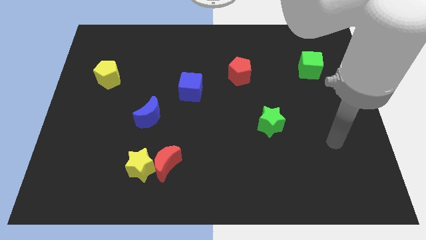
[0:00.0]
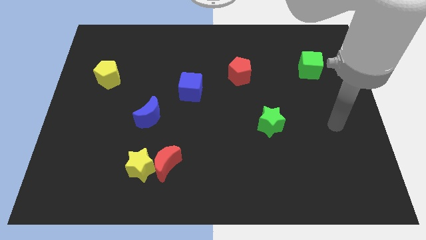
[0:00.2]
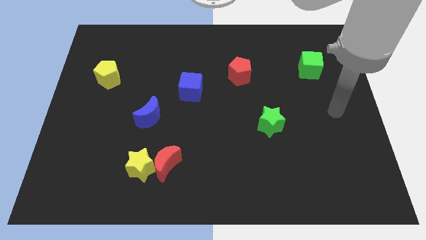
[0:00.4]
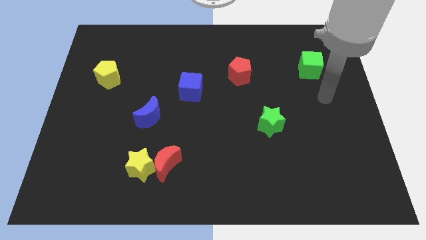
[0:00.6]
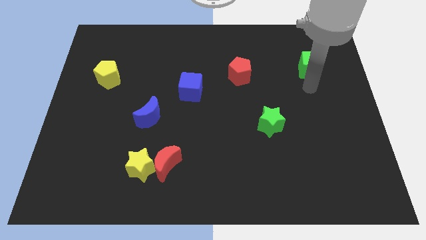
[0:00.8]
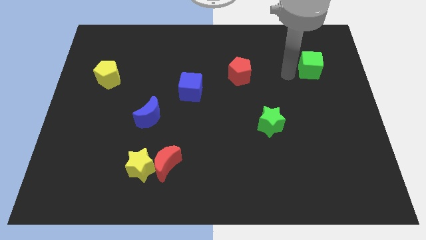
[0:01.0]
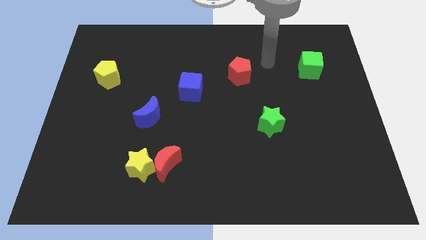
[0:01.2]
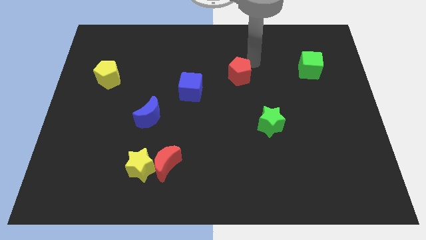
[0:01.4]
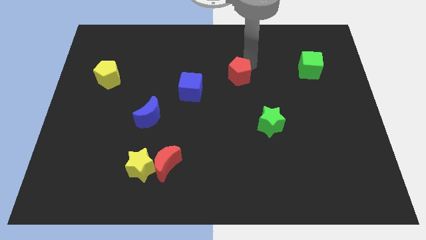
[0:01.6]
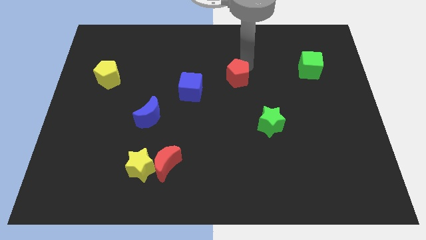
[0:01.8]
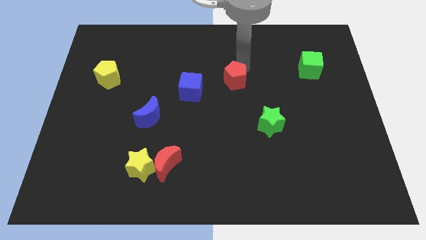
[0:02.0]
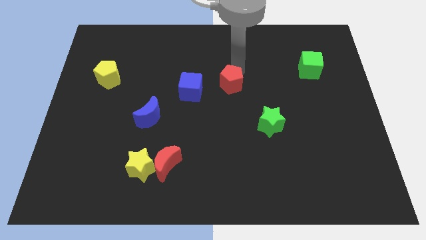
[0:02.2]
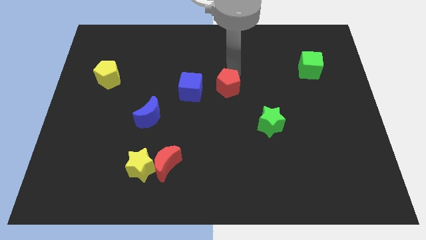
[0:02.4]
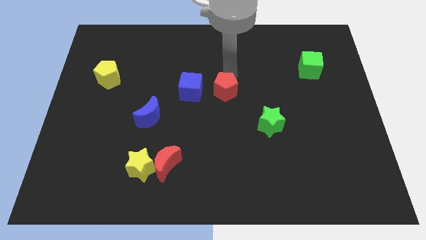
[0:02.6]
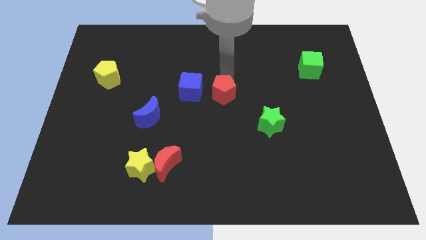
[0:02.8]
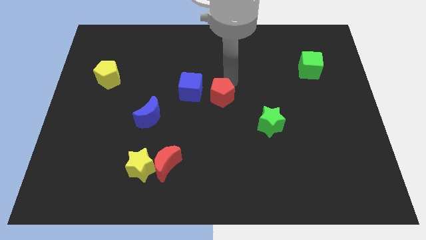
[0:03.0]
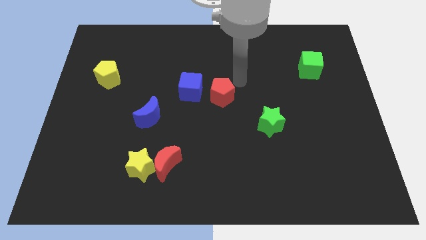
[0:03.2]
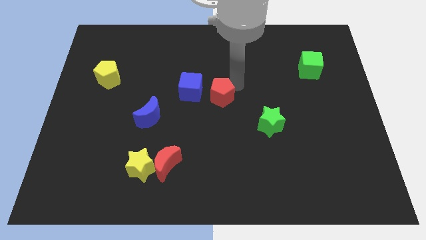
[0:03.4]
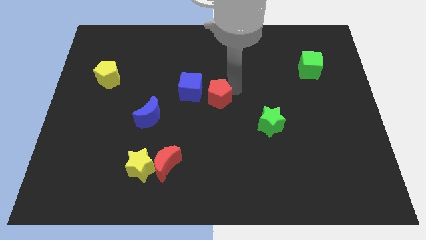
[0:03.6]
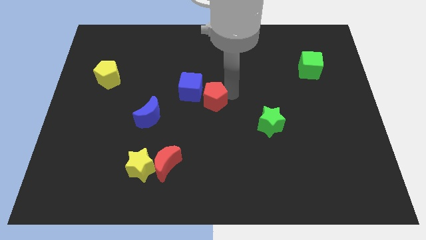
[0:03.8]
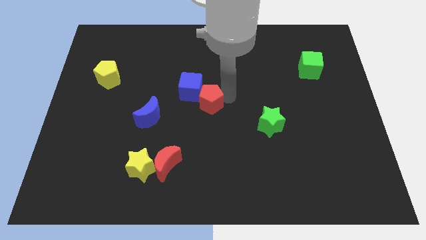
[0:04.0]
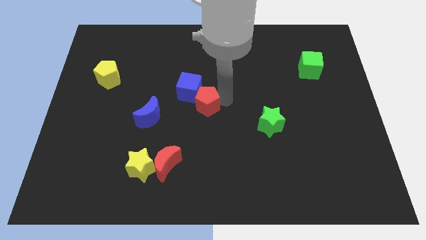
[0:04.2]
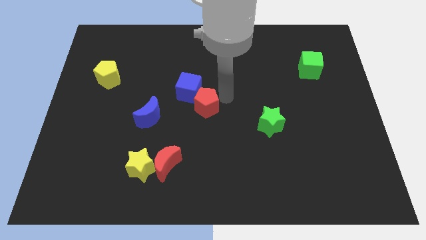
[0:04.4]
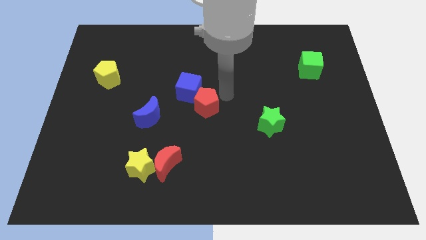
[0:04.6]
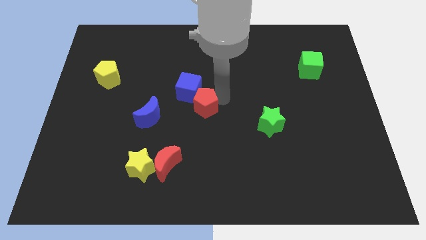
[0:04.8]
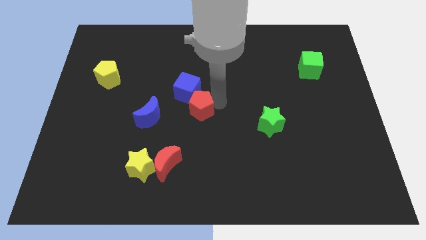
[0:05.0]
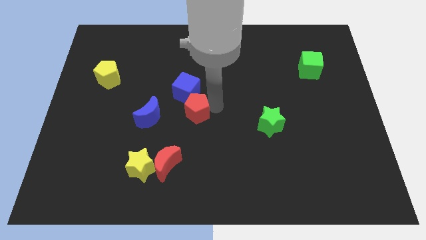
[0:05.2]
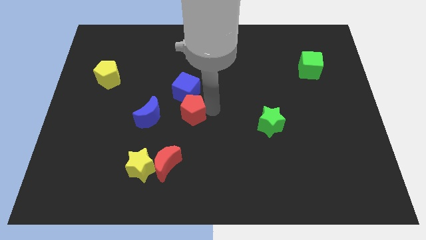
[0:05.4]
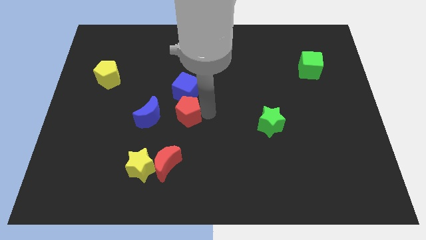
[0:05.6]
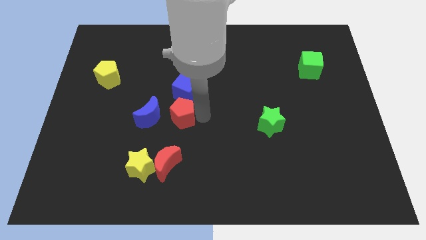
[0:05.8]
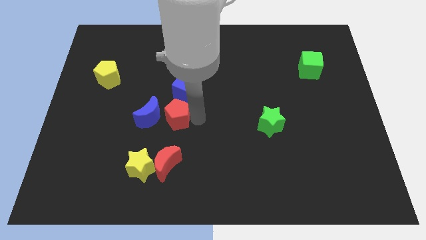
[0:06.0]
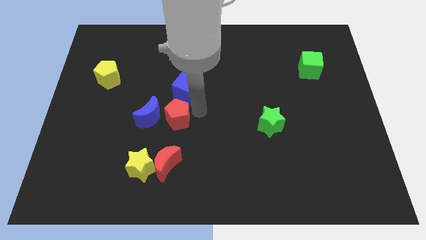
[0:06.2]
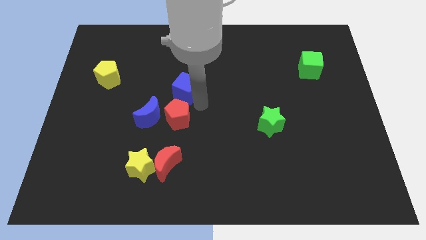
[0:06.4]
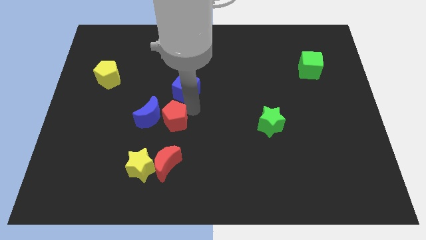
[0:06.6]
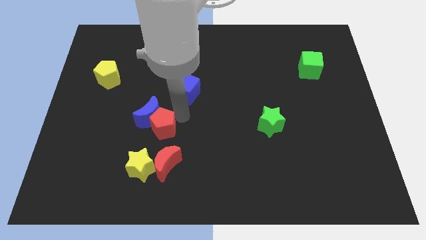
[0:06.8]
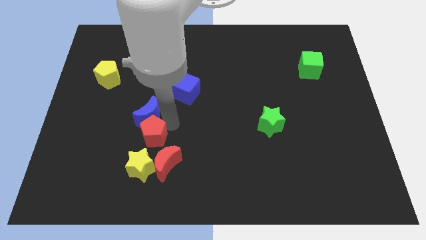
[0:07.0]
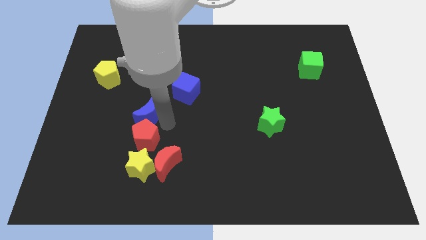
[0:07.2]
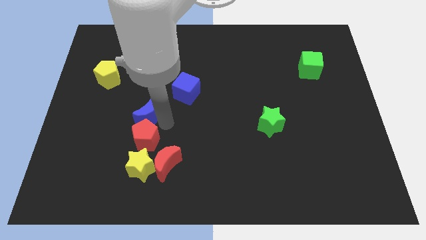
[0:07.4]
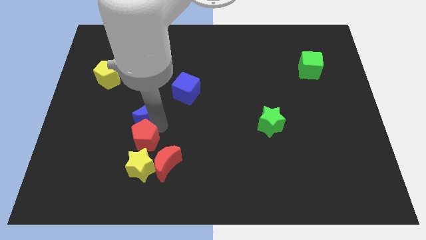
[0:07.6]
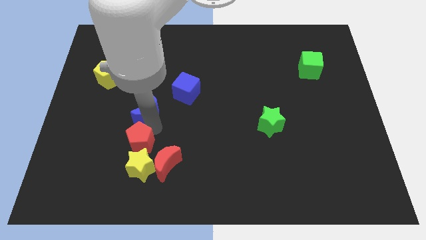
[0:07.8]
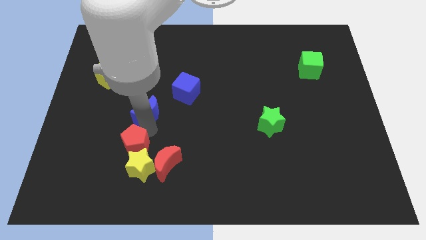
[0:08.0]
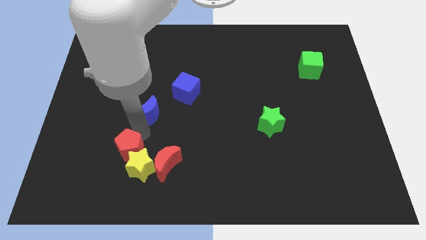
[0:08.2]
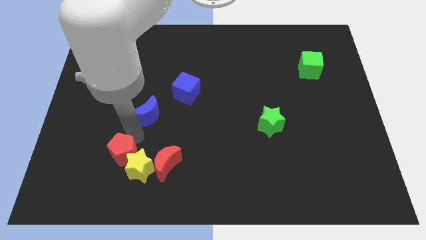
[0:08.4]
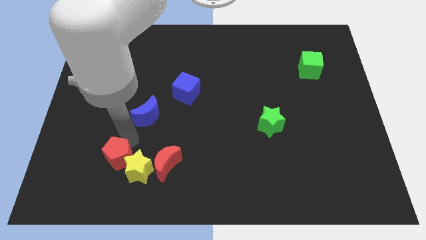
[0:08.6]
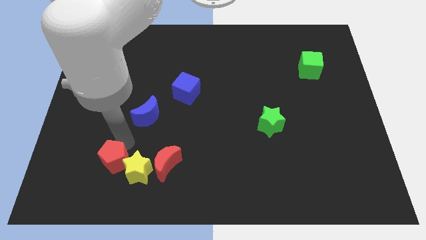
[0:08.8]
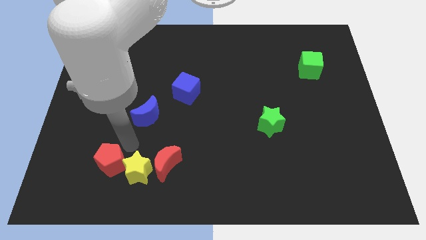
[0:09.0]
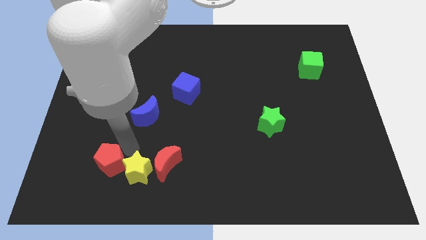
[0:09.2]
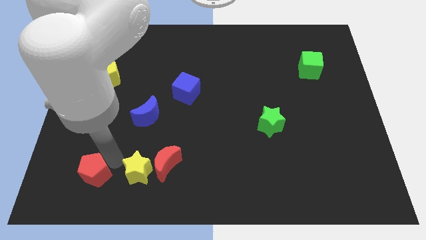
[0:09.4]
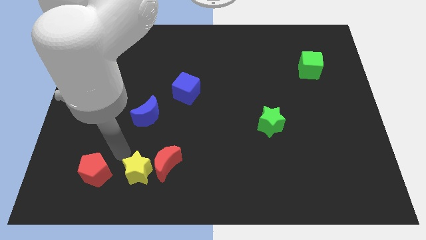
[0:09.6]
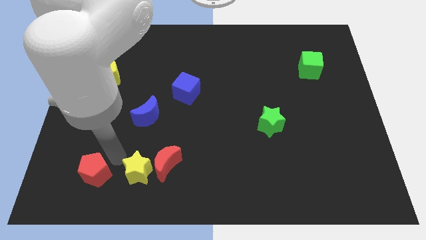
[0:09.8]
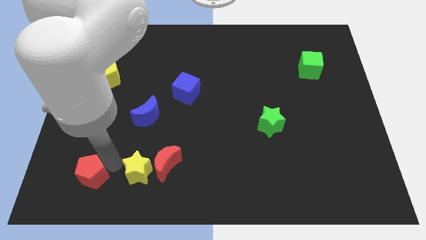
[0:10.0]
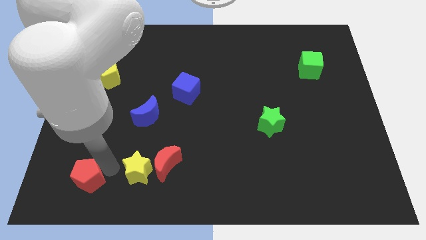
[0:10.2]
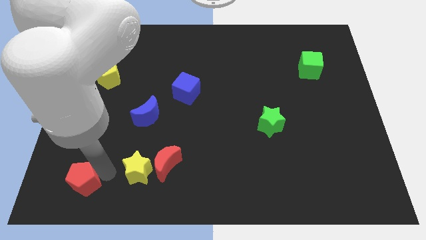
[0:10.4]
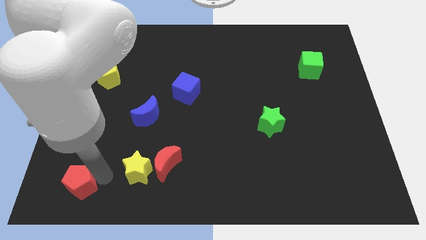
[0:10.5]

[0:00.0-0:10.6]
push the red pentagon to the bottom left corner

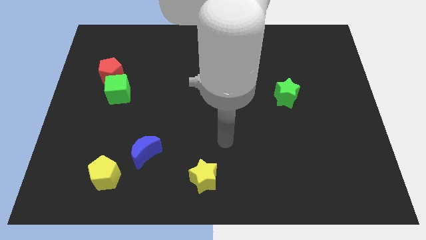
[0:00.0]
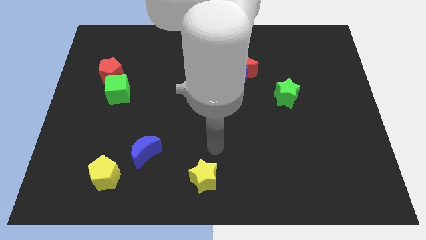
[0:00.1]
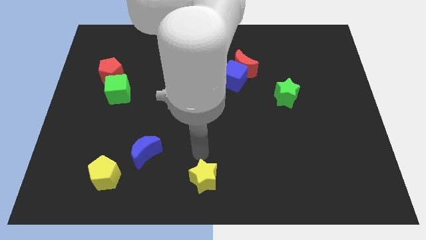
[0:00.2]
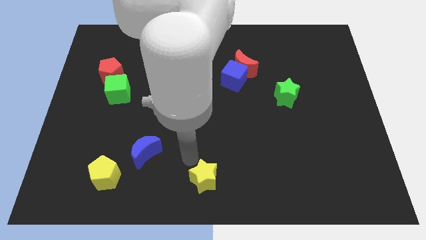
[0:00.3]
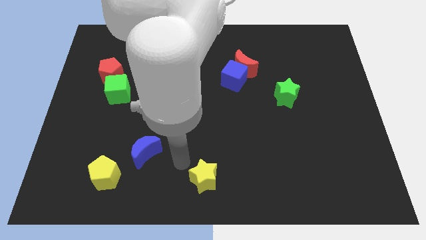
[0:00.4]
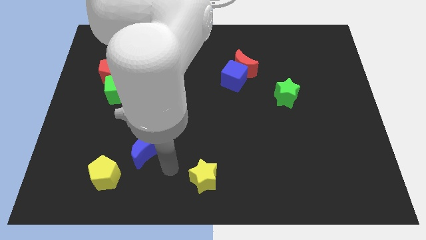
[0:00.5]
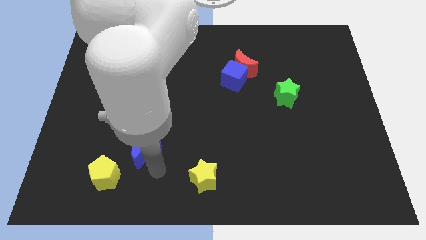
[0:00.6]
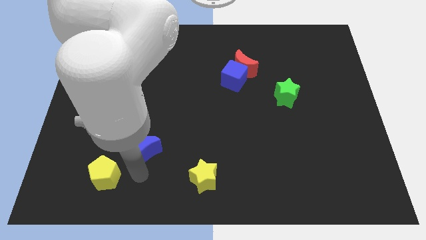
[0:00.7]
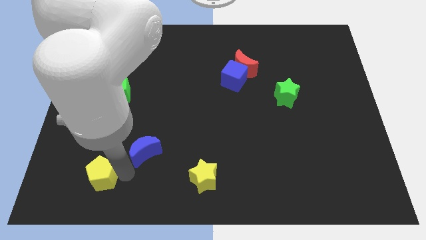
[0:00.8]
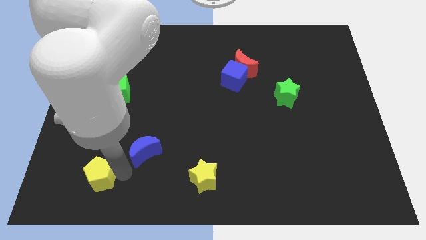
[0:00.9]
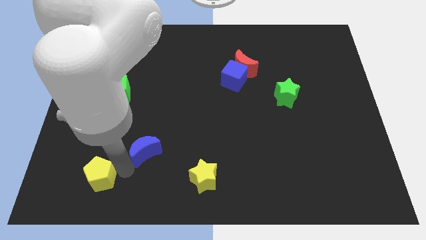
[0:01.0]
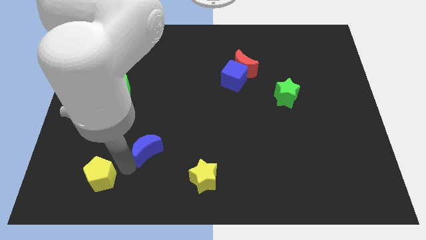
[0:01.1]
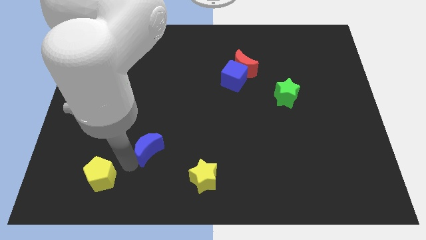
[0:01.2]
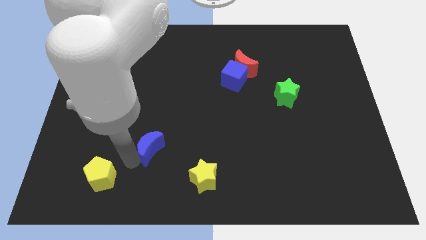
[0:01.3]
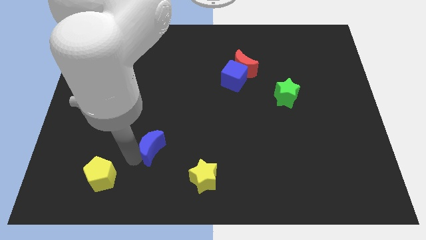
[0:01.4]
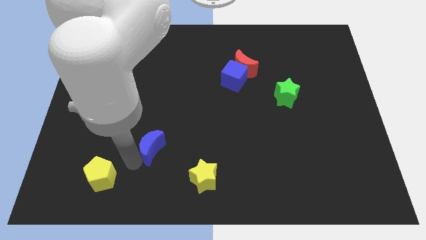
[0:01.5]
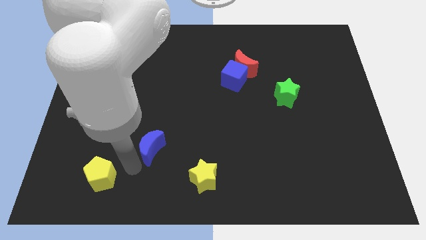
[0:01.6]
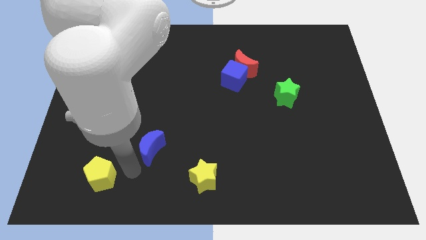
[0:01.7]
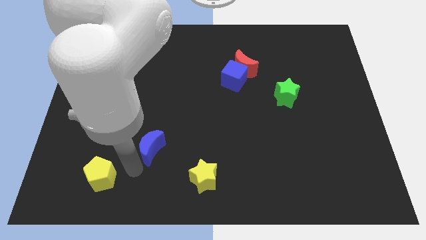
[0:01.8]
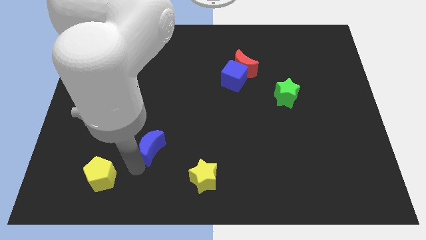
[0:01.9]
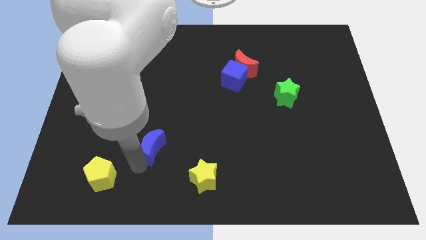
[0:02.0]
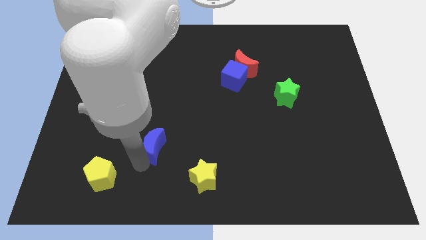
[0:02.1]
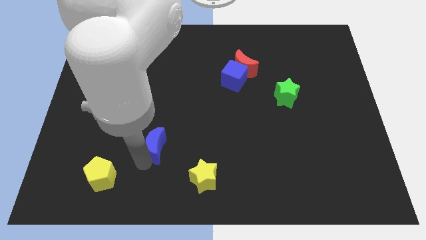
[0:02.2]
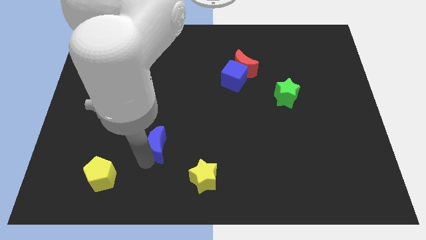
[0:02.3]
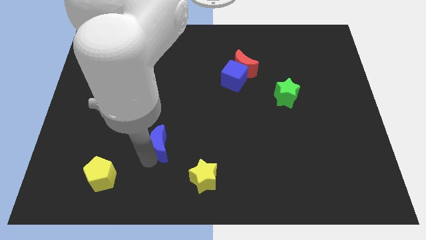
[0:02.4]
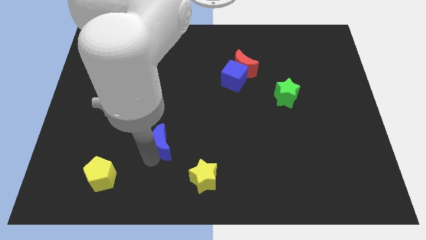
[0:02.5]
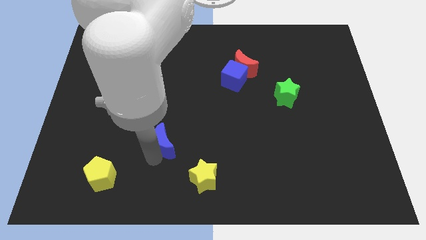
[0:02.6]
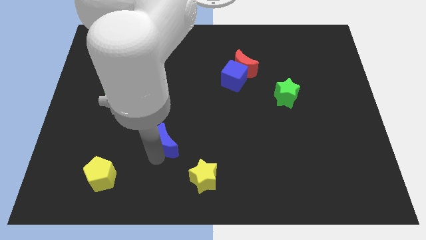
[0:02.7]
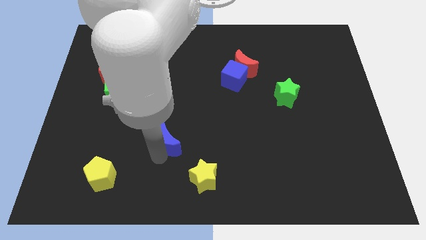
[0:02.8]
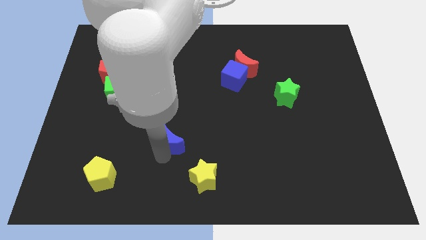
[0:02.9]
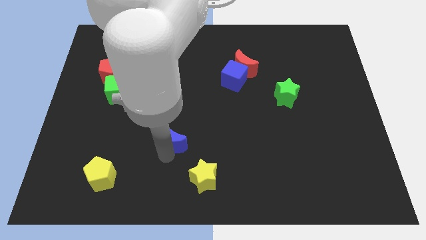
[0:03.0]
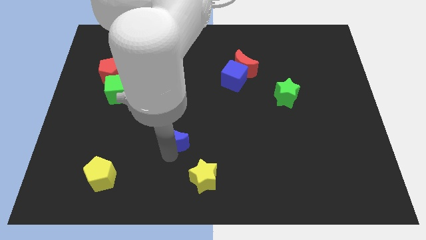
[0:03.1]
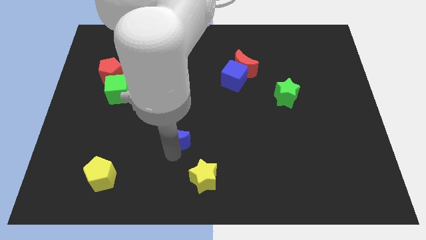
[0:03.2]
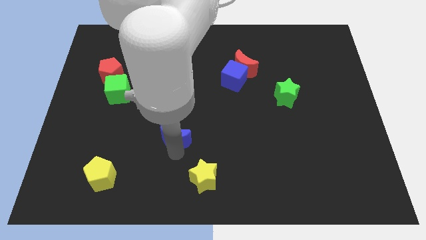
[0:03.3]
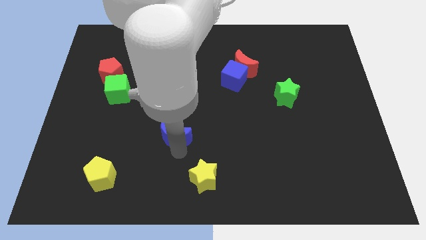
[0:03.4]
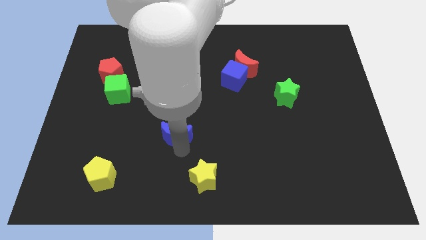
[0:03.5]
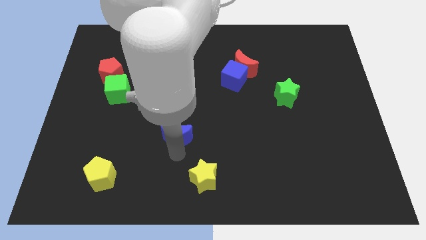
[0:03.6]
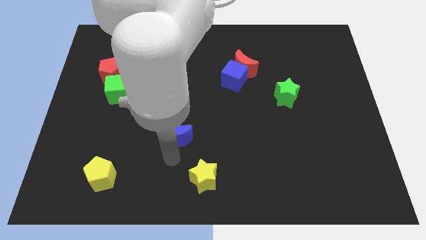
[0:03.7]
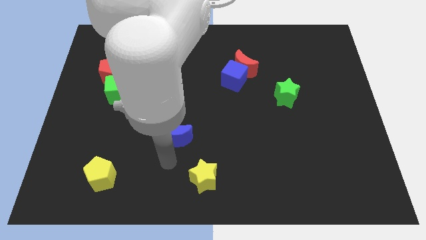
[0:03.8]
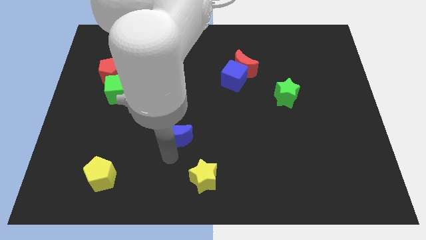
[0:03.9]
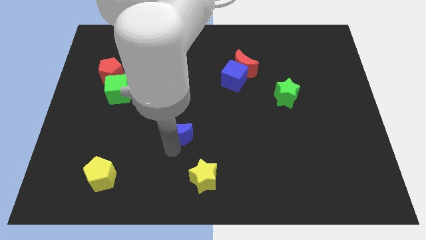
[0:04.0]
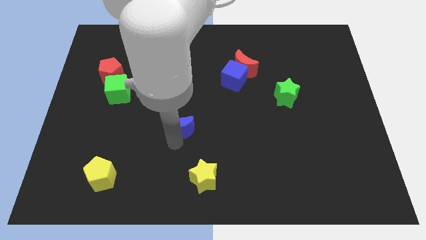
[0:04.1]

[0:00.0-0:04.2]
push the blue moon to the middle
